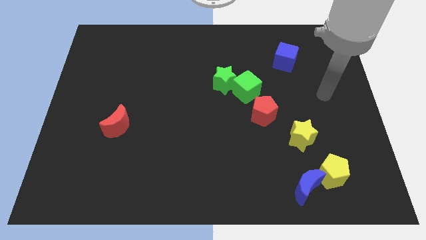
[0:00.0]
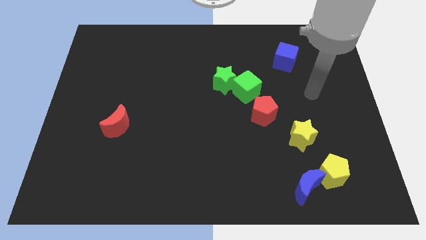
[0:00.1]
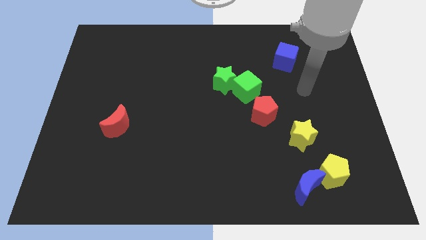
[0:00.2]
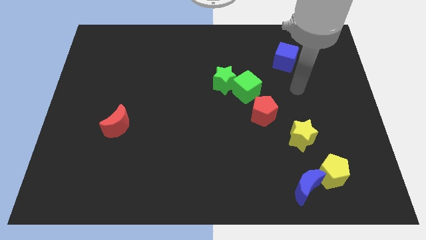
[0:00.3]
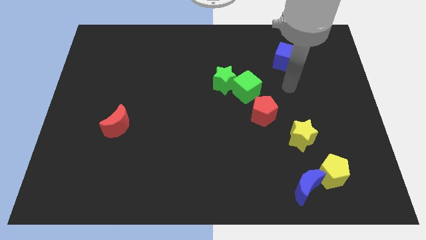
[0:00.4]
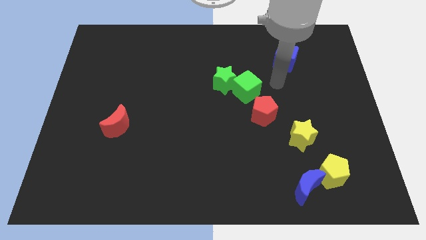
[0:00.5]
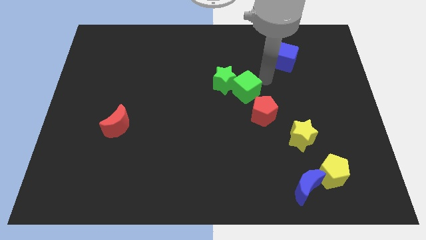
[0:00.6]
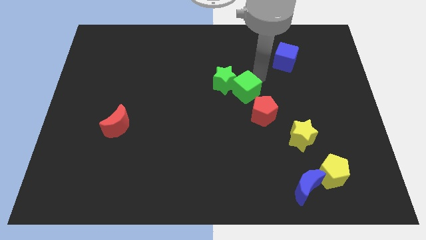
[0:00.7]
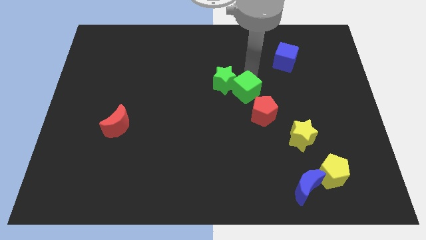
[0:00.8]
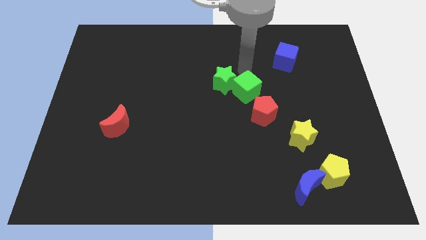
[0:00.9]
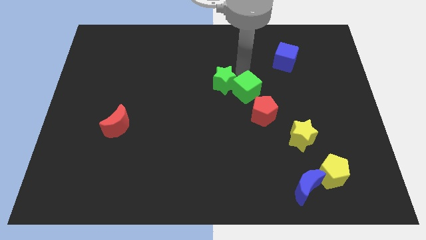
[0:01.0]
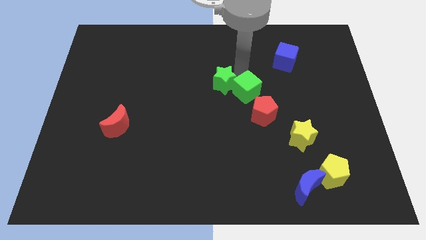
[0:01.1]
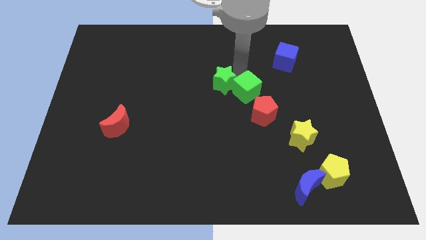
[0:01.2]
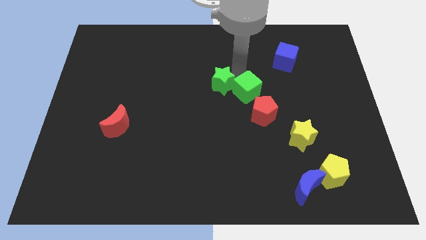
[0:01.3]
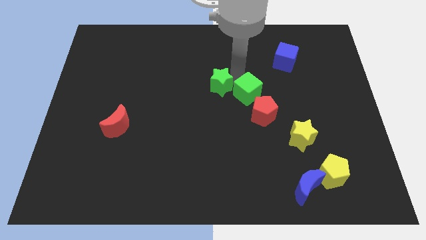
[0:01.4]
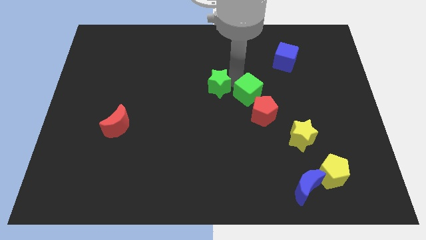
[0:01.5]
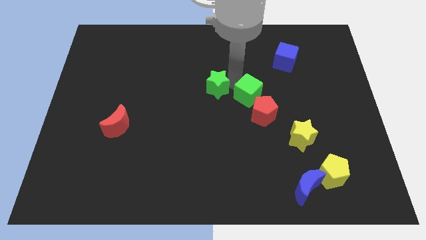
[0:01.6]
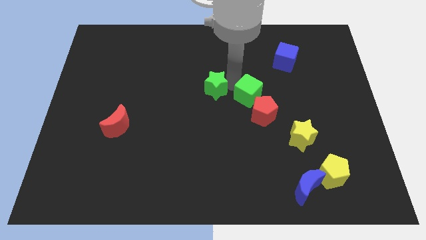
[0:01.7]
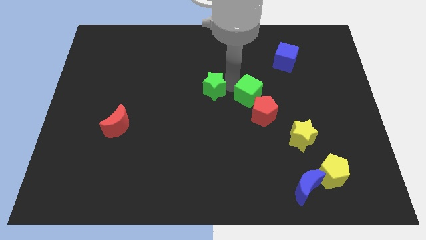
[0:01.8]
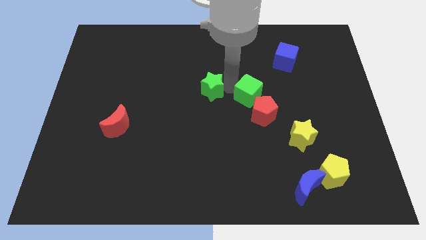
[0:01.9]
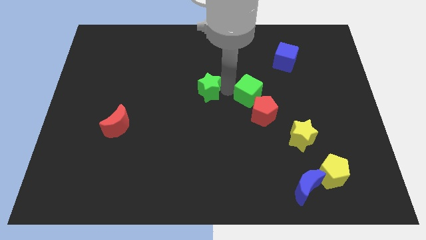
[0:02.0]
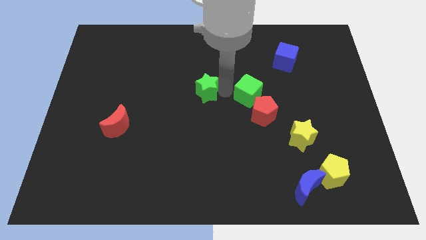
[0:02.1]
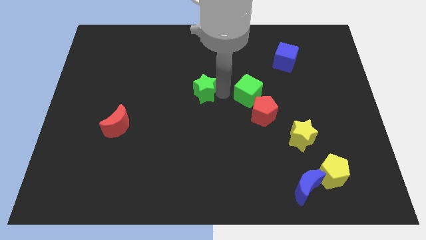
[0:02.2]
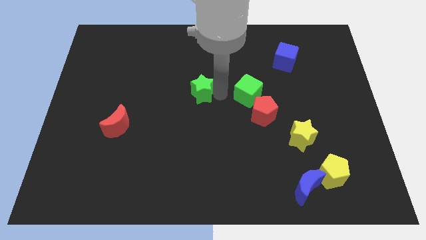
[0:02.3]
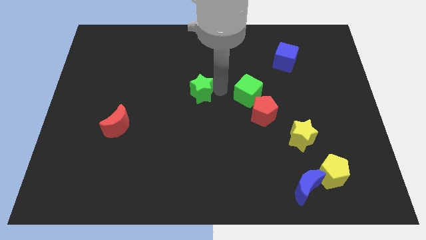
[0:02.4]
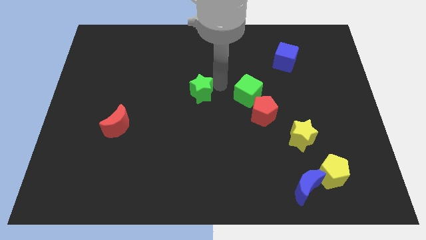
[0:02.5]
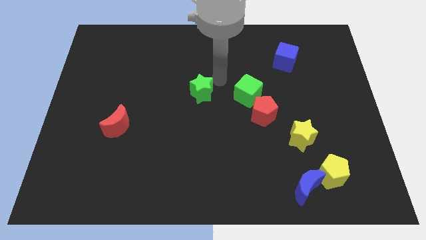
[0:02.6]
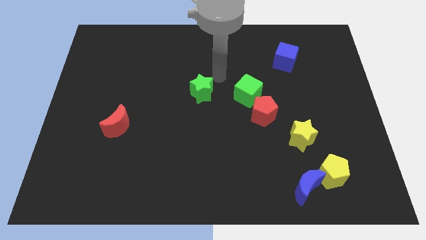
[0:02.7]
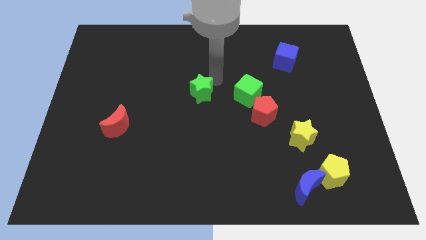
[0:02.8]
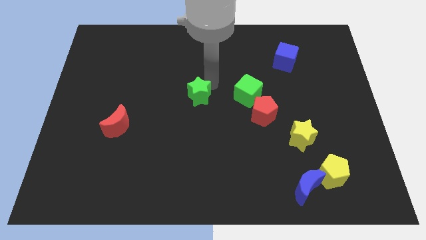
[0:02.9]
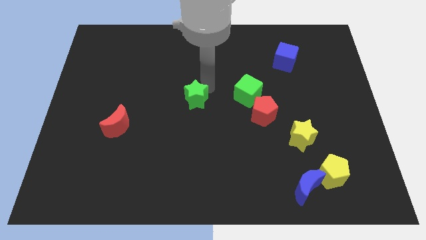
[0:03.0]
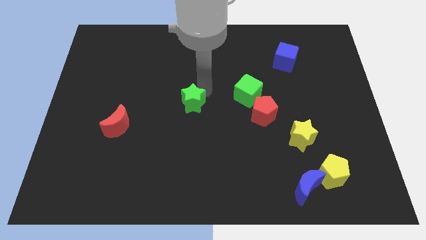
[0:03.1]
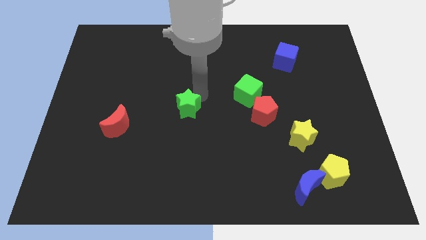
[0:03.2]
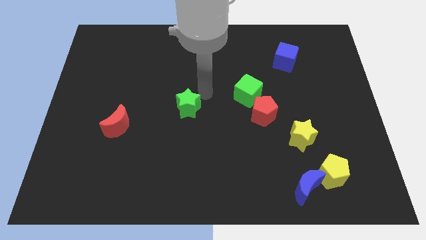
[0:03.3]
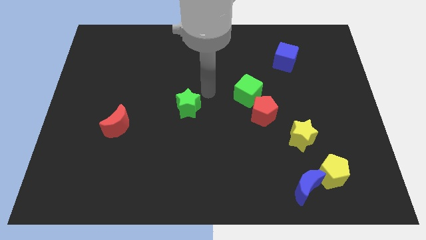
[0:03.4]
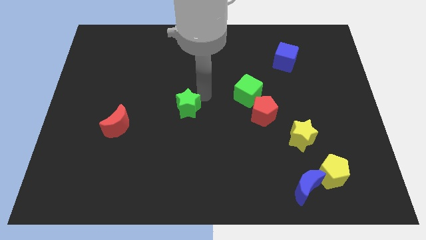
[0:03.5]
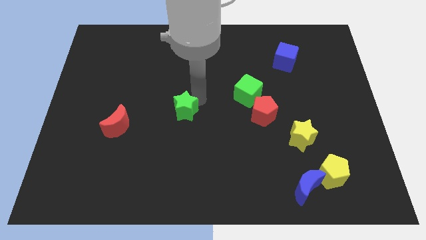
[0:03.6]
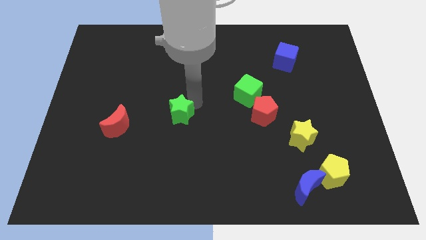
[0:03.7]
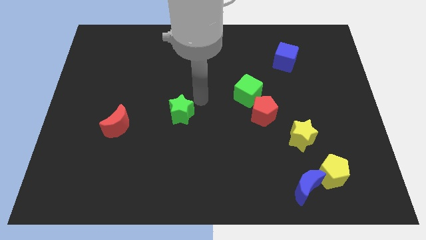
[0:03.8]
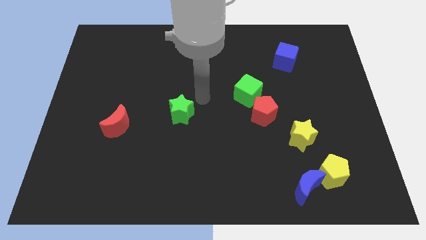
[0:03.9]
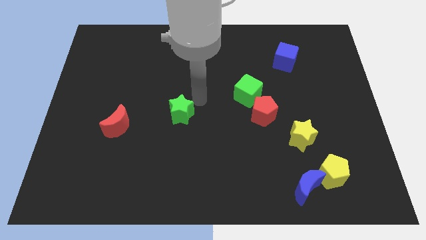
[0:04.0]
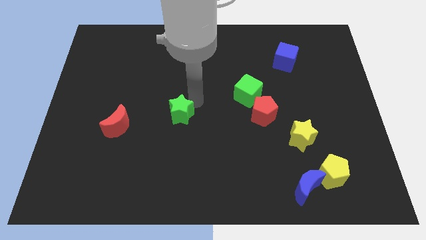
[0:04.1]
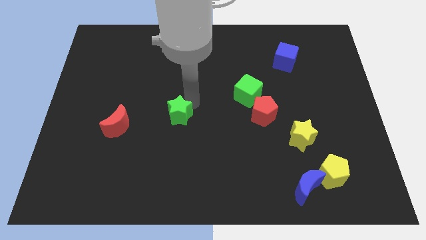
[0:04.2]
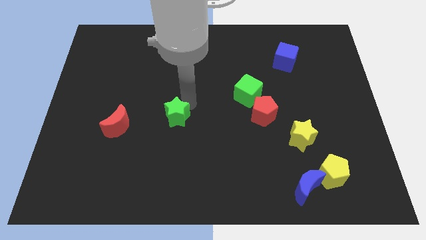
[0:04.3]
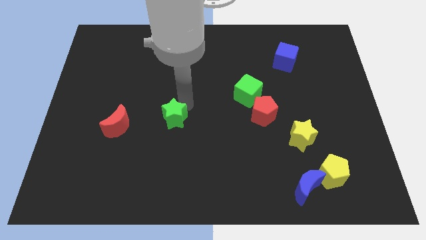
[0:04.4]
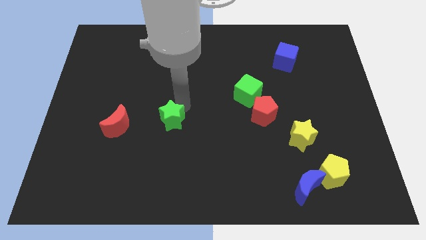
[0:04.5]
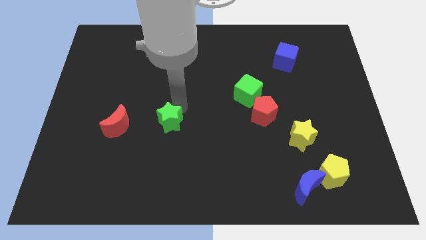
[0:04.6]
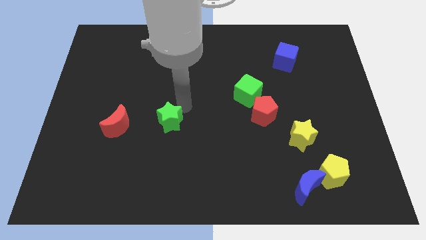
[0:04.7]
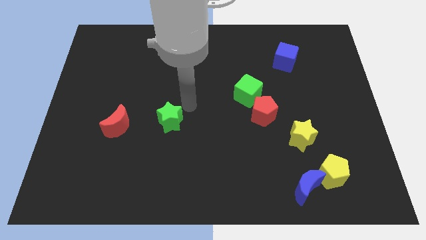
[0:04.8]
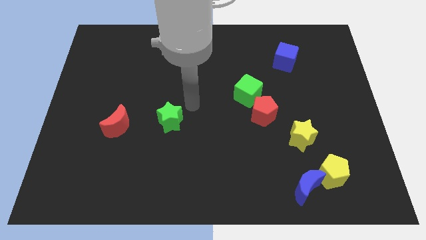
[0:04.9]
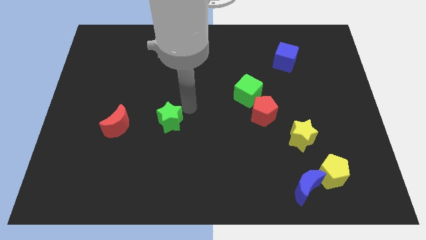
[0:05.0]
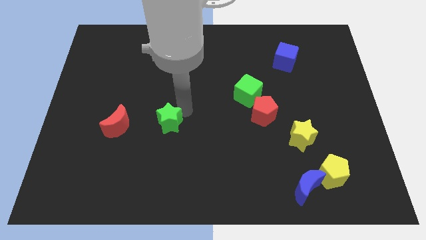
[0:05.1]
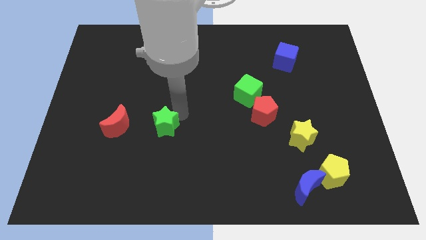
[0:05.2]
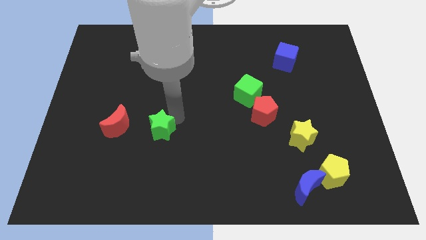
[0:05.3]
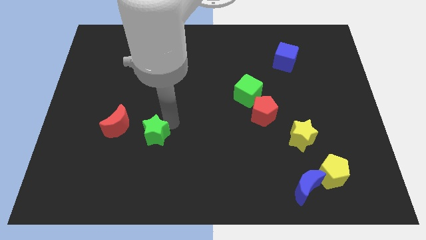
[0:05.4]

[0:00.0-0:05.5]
put the green star diagonally down and to the right of the red moon

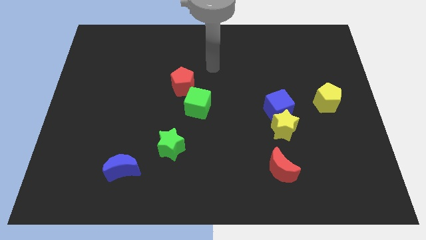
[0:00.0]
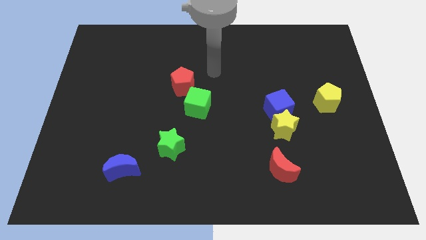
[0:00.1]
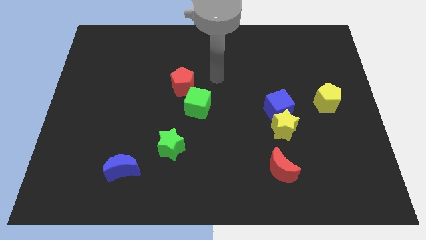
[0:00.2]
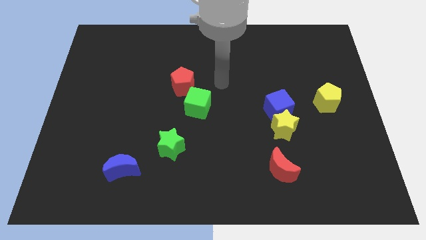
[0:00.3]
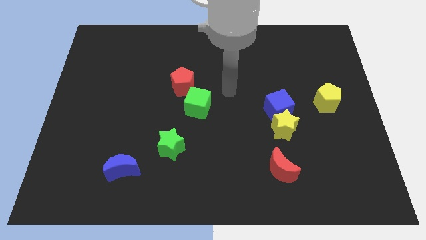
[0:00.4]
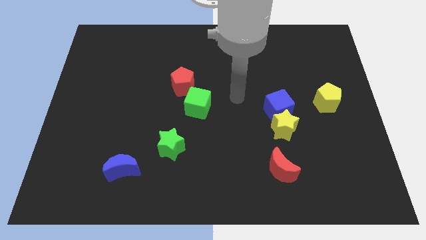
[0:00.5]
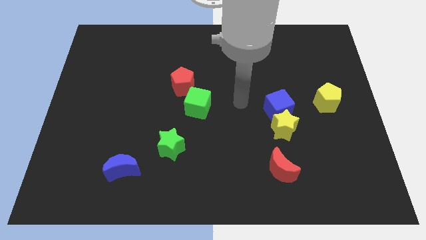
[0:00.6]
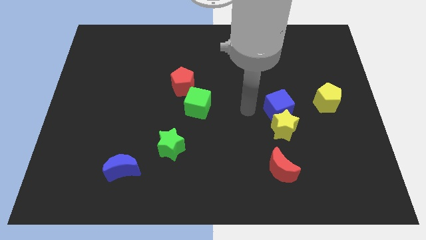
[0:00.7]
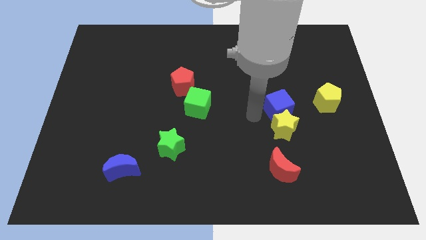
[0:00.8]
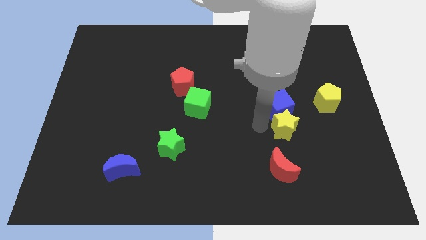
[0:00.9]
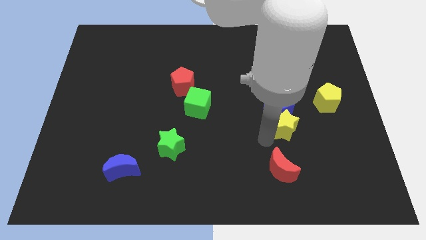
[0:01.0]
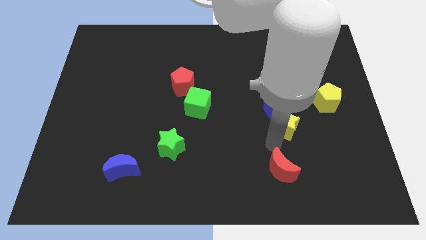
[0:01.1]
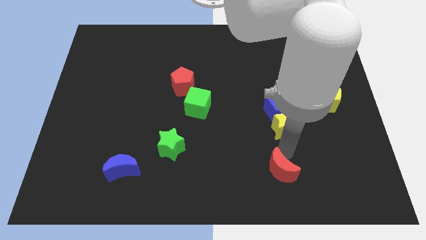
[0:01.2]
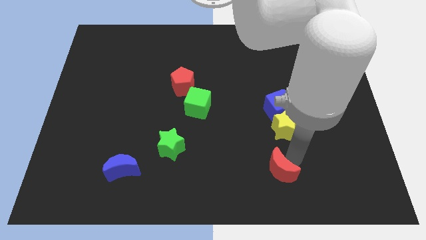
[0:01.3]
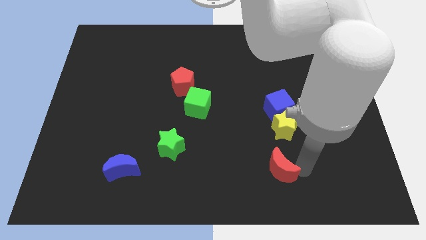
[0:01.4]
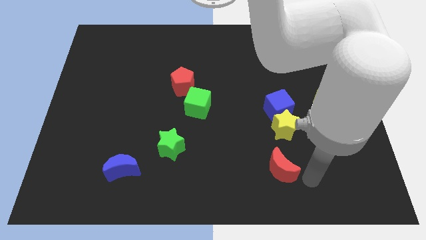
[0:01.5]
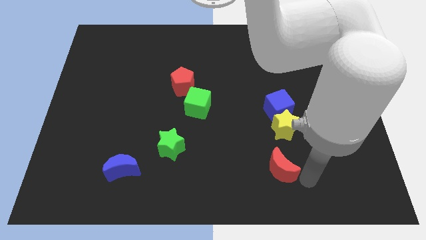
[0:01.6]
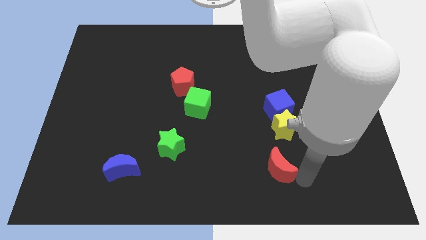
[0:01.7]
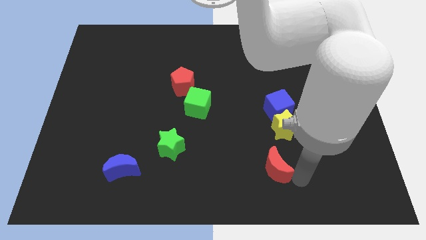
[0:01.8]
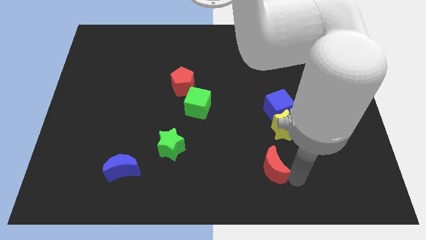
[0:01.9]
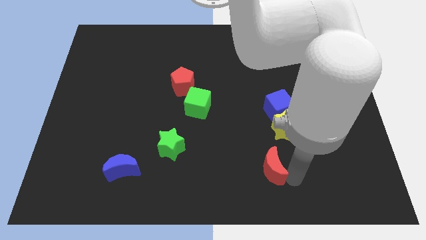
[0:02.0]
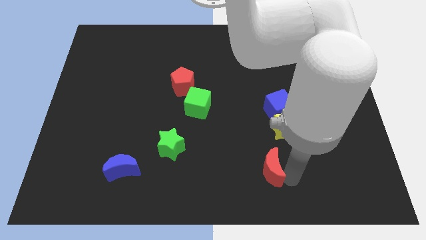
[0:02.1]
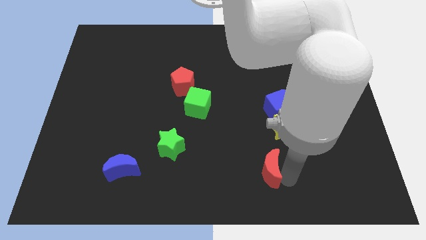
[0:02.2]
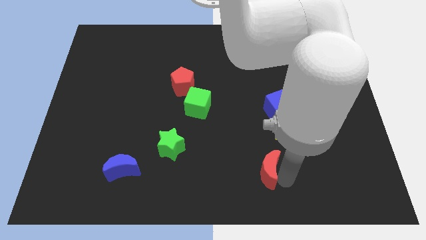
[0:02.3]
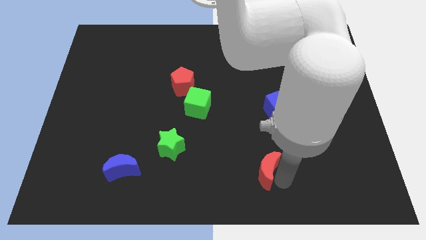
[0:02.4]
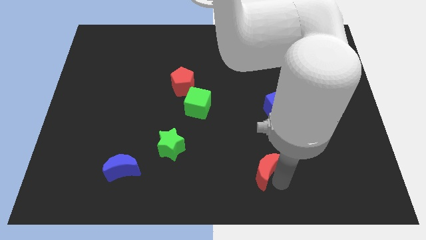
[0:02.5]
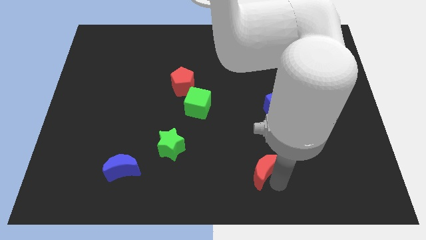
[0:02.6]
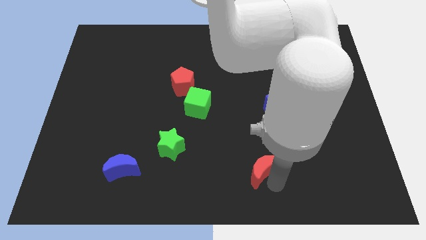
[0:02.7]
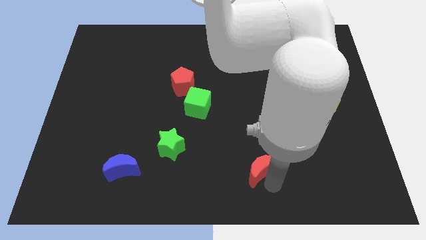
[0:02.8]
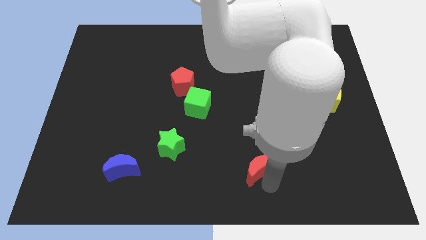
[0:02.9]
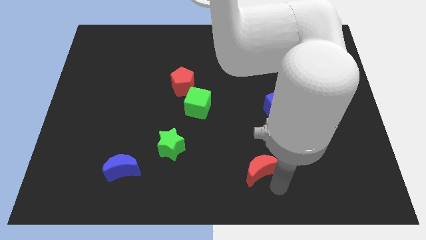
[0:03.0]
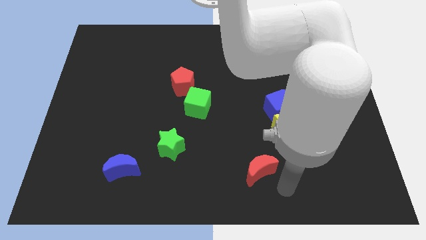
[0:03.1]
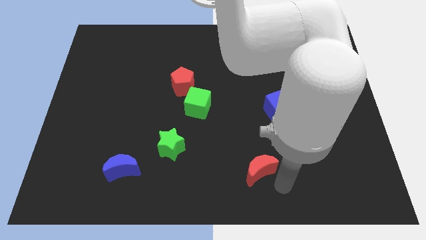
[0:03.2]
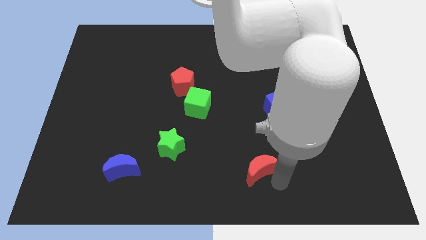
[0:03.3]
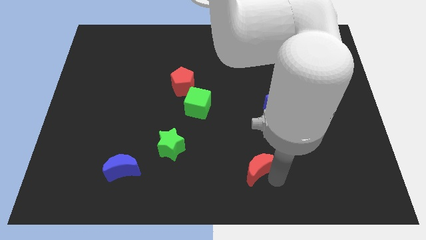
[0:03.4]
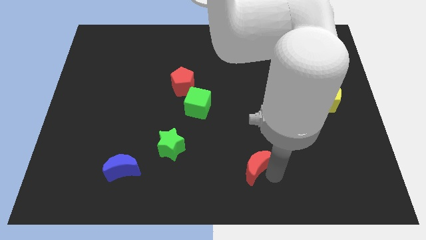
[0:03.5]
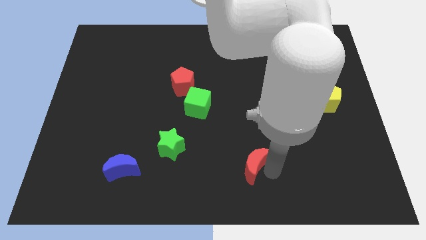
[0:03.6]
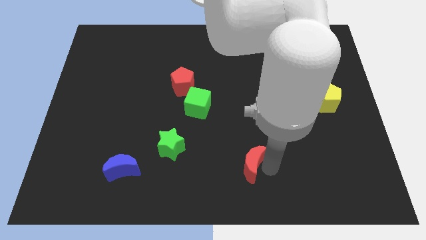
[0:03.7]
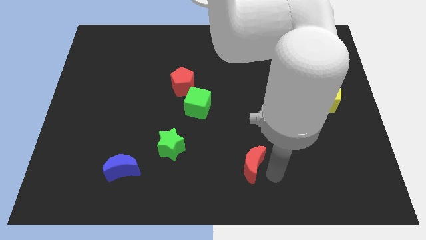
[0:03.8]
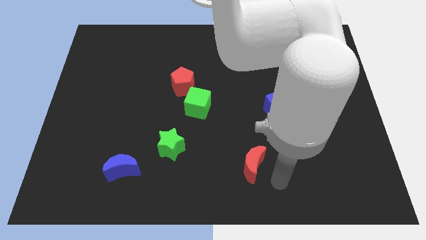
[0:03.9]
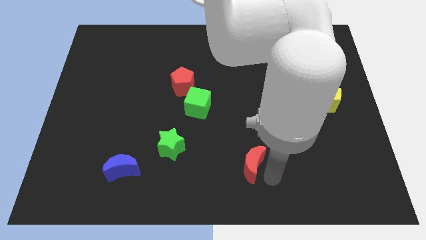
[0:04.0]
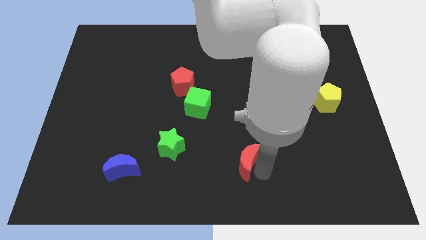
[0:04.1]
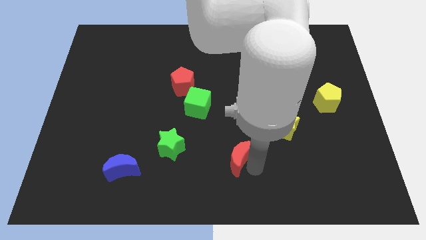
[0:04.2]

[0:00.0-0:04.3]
move the red moon right of the green star
